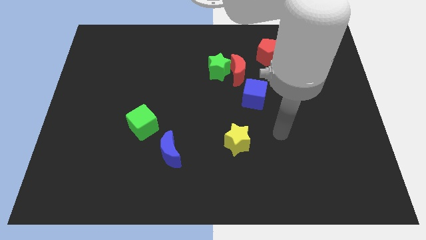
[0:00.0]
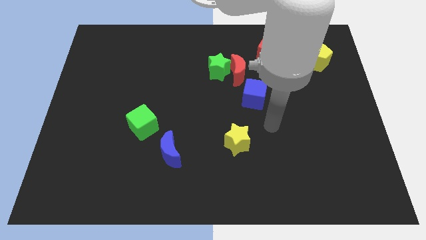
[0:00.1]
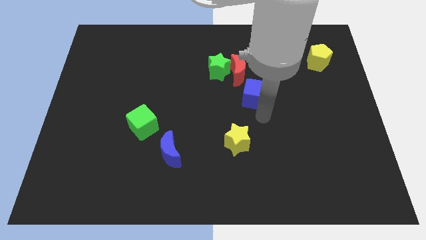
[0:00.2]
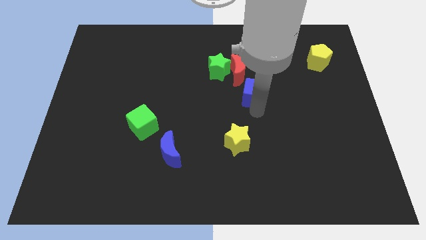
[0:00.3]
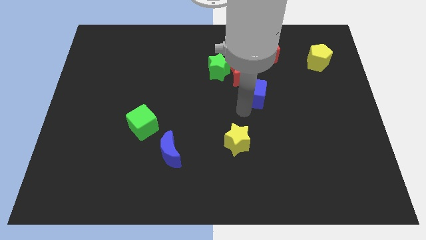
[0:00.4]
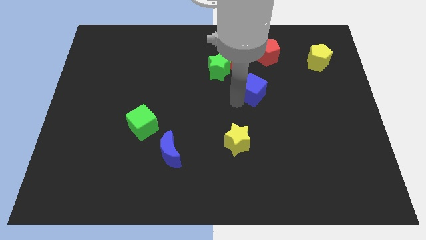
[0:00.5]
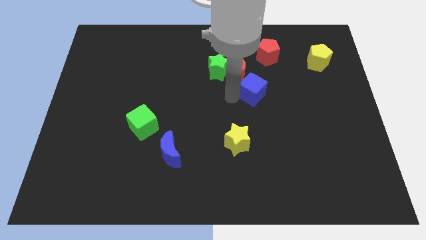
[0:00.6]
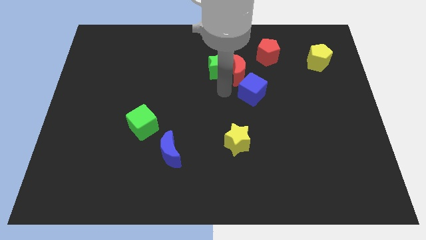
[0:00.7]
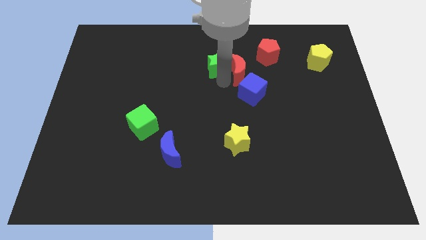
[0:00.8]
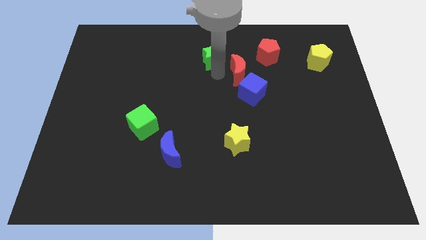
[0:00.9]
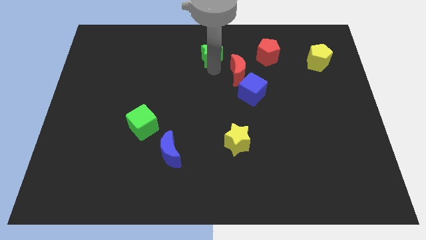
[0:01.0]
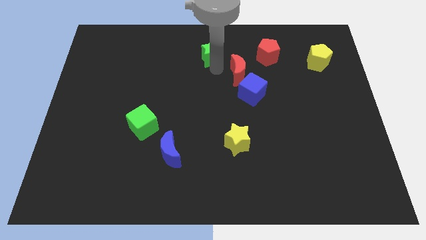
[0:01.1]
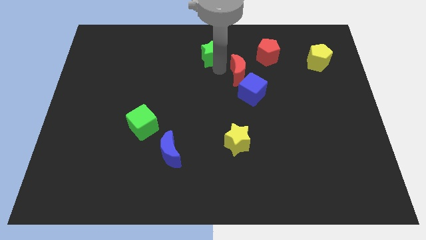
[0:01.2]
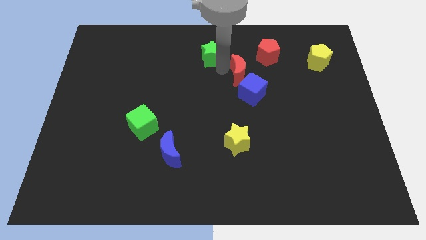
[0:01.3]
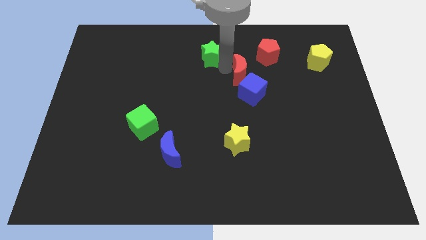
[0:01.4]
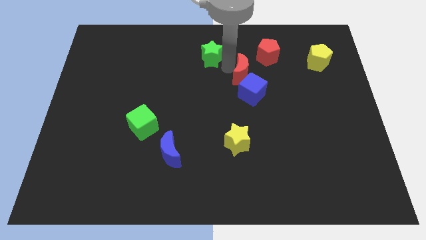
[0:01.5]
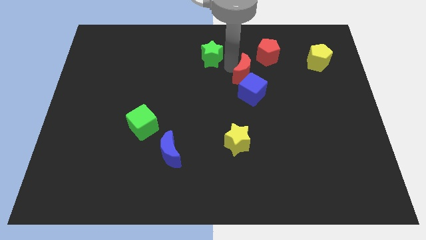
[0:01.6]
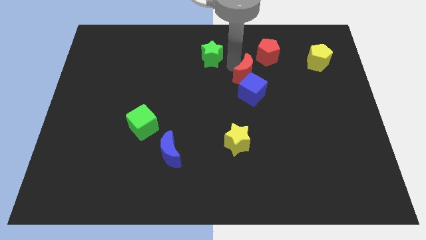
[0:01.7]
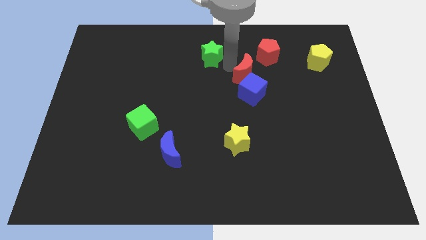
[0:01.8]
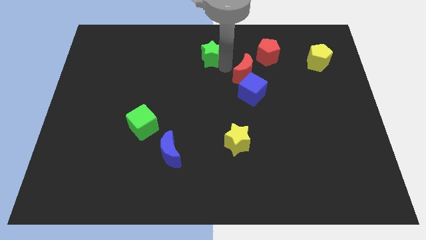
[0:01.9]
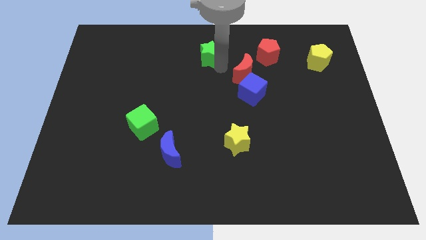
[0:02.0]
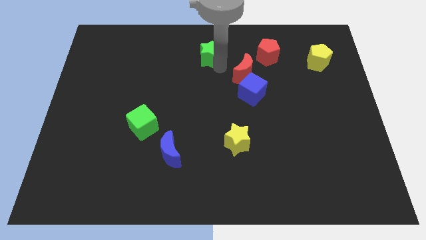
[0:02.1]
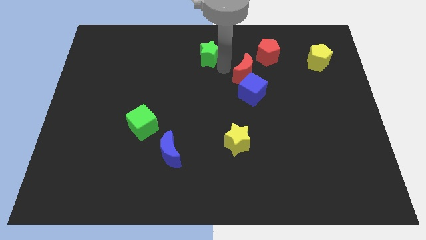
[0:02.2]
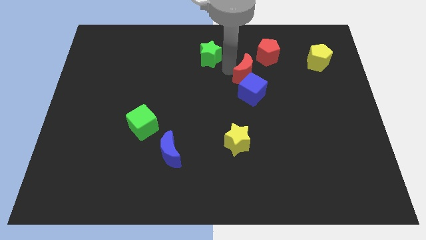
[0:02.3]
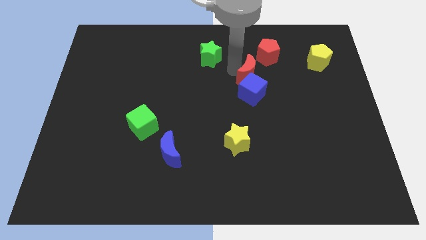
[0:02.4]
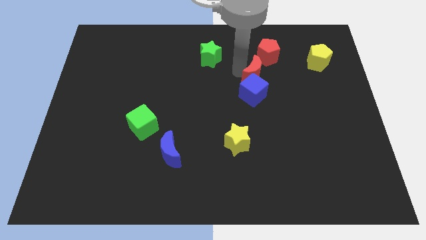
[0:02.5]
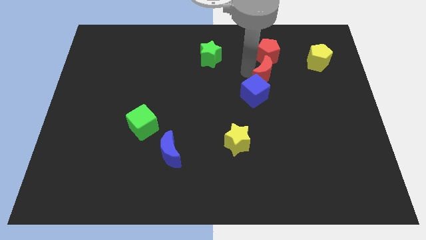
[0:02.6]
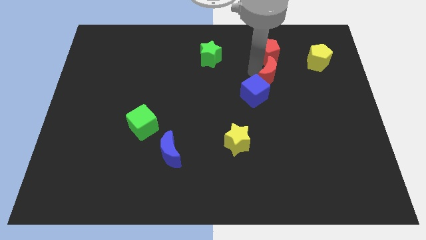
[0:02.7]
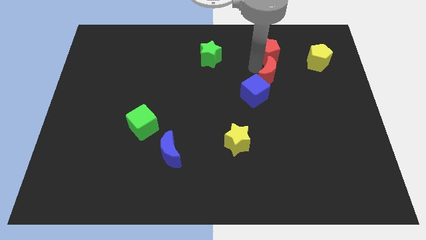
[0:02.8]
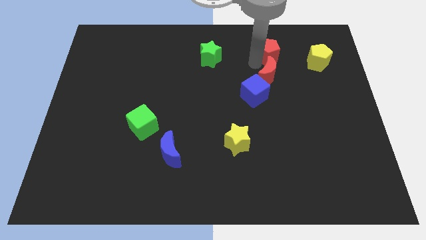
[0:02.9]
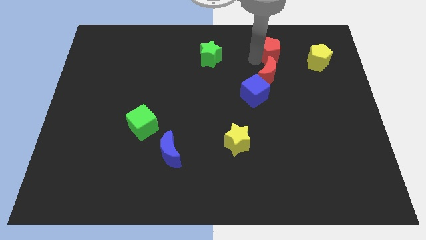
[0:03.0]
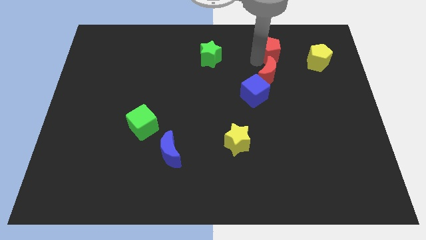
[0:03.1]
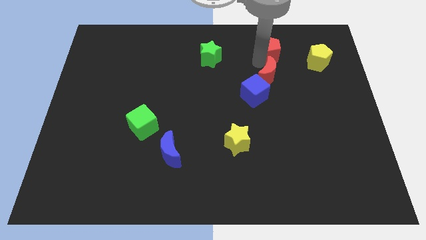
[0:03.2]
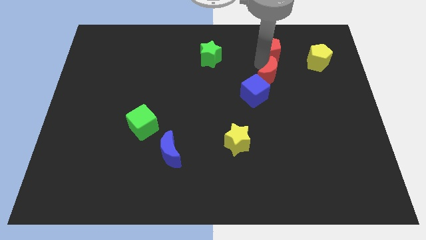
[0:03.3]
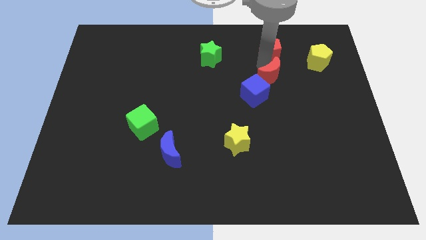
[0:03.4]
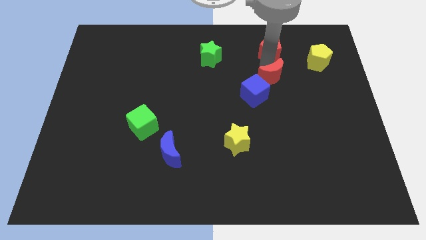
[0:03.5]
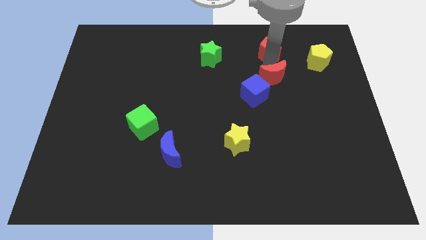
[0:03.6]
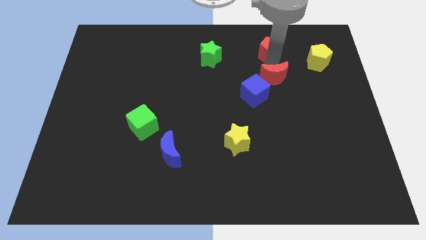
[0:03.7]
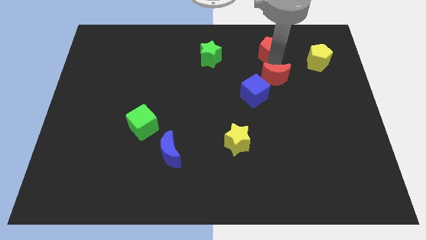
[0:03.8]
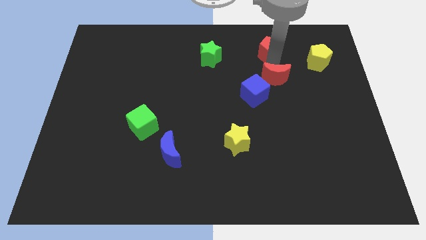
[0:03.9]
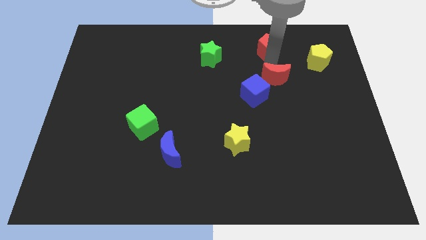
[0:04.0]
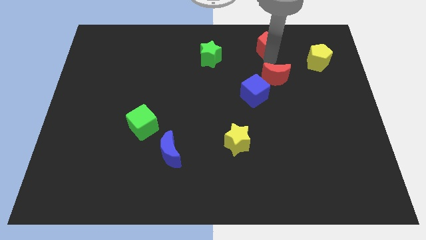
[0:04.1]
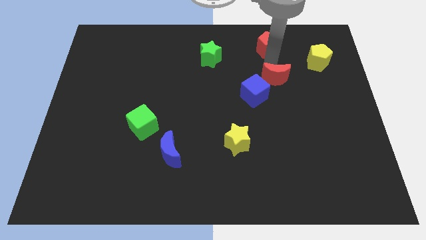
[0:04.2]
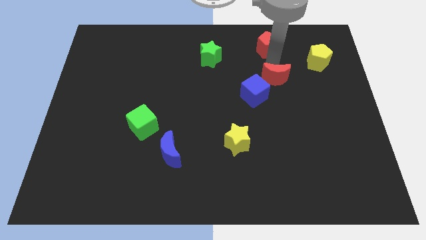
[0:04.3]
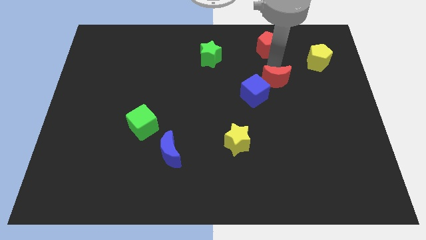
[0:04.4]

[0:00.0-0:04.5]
slightly slide the red moon downwards and then to the right

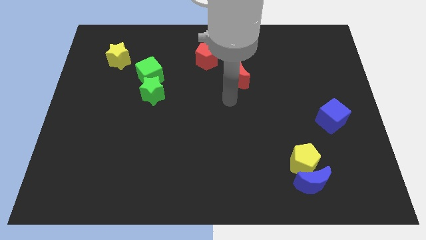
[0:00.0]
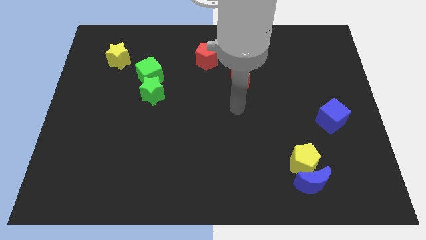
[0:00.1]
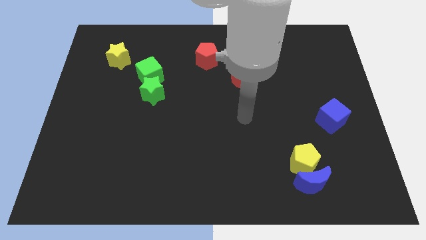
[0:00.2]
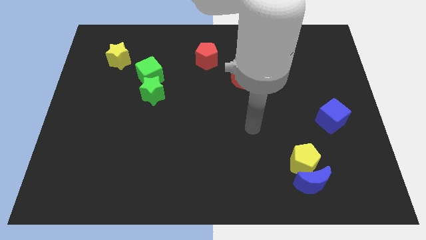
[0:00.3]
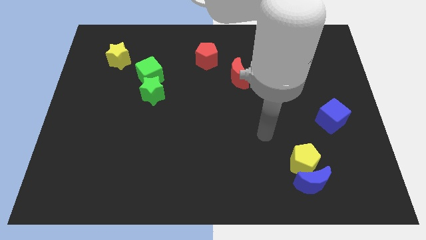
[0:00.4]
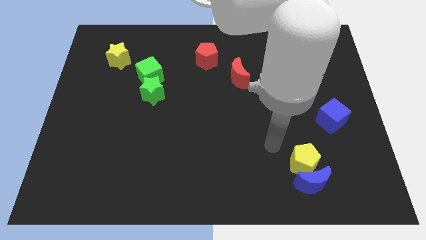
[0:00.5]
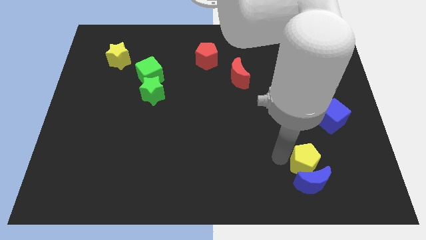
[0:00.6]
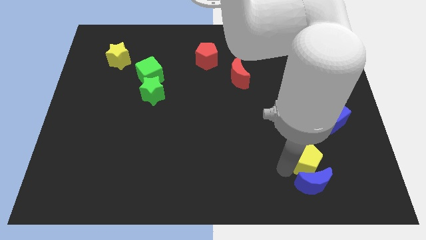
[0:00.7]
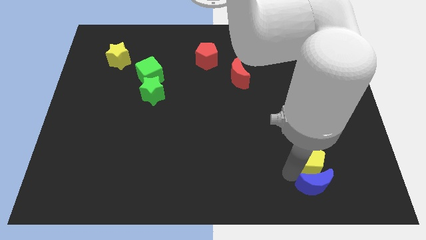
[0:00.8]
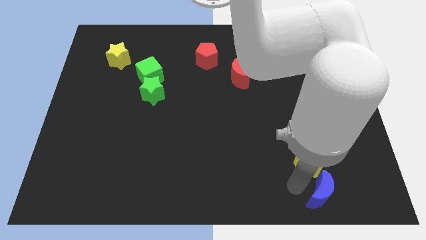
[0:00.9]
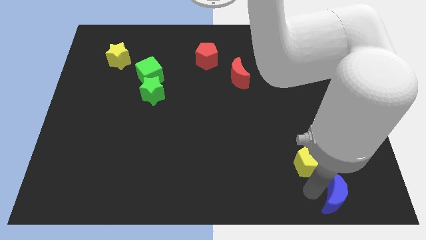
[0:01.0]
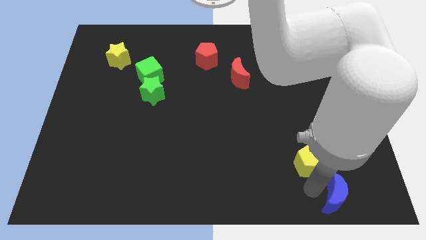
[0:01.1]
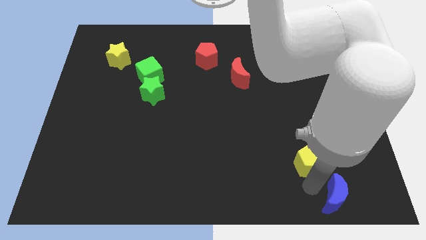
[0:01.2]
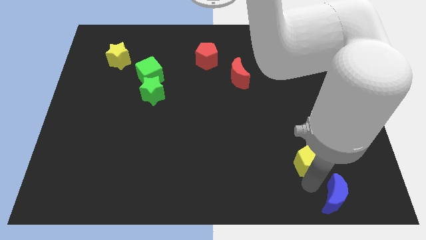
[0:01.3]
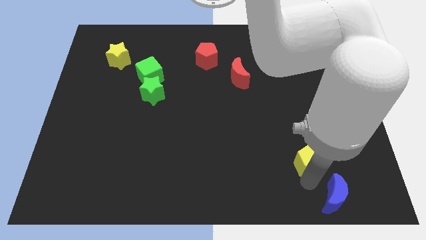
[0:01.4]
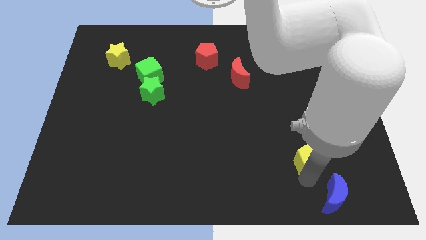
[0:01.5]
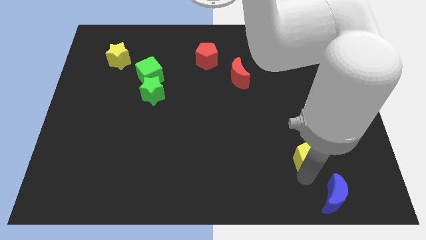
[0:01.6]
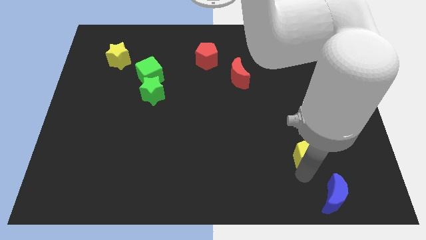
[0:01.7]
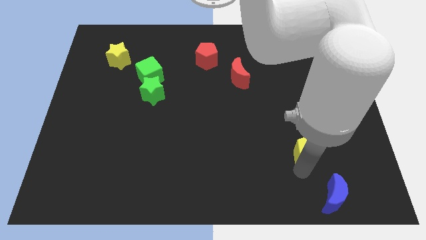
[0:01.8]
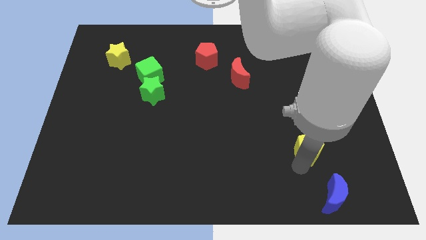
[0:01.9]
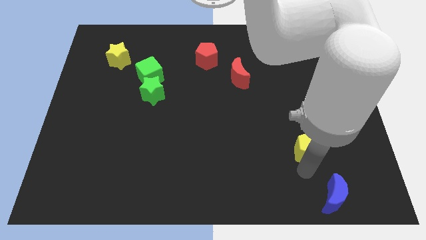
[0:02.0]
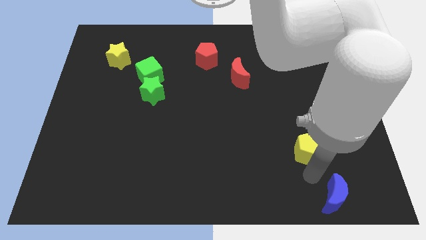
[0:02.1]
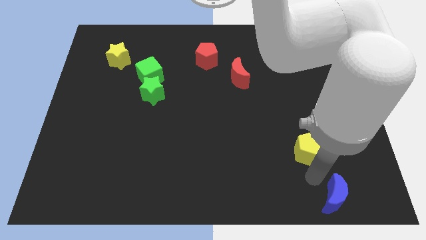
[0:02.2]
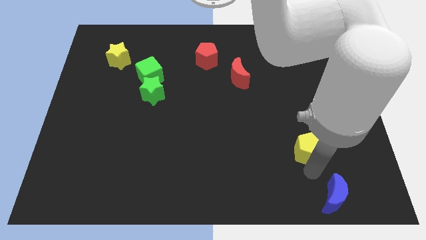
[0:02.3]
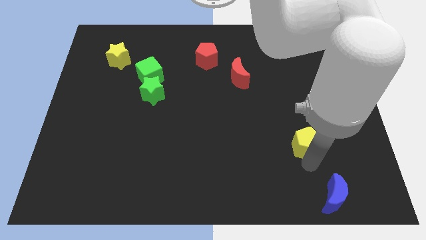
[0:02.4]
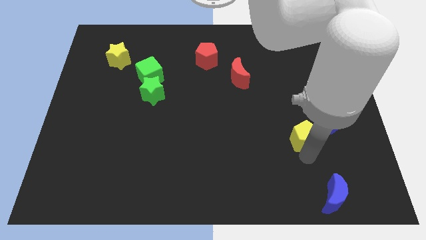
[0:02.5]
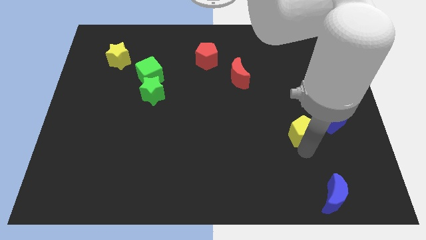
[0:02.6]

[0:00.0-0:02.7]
slightly push the yellow pentagon upwards

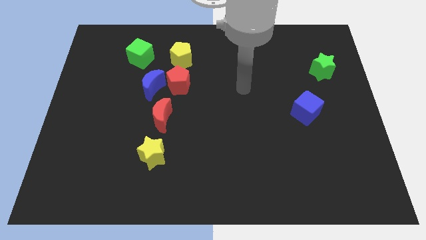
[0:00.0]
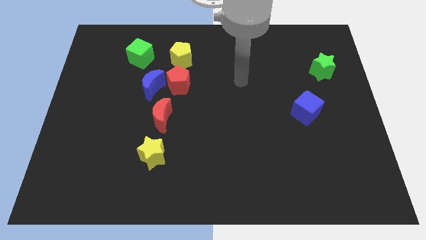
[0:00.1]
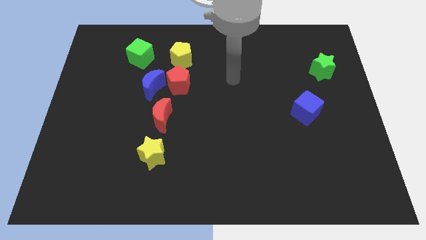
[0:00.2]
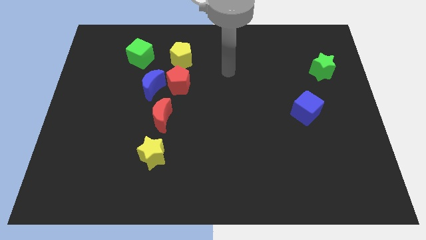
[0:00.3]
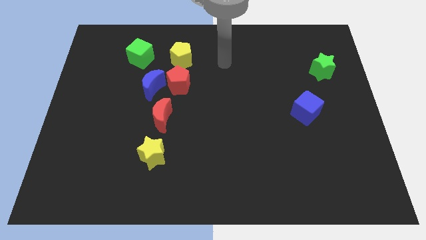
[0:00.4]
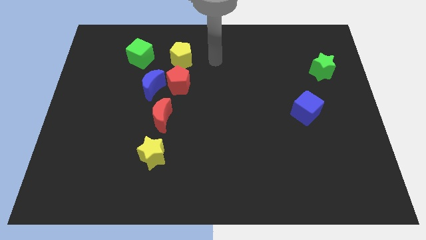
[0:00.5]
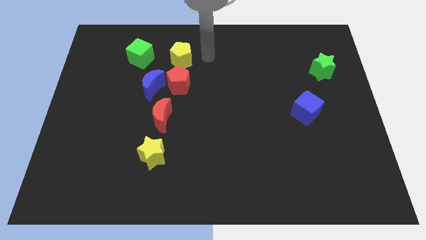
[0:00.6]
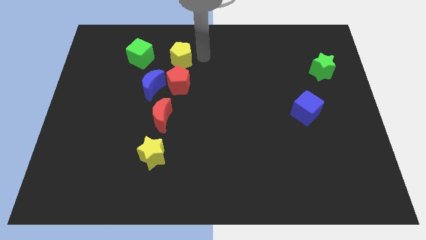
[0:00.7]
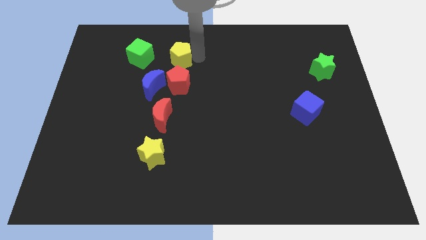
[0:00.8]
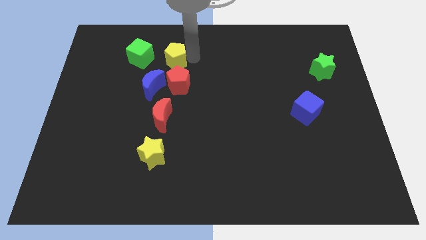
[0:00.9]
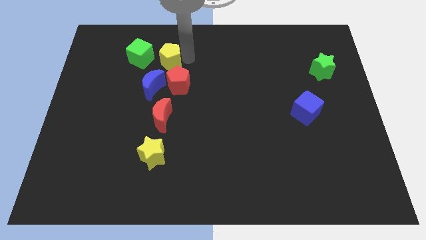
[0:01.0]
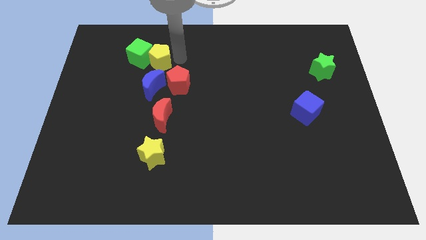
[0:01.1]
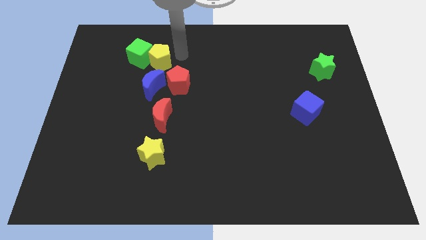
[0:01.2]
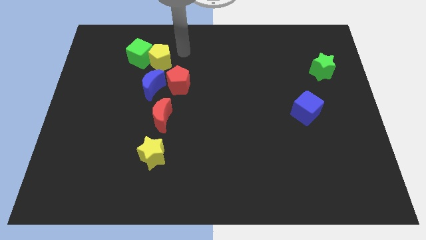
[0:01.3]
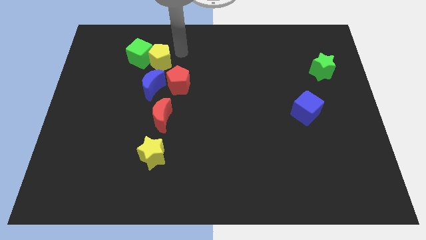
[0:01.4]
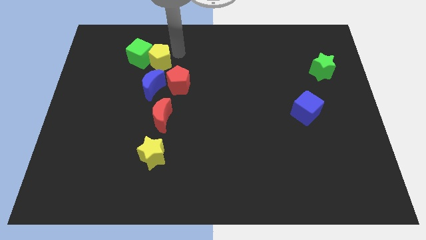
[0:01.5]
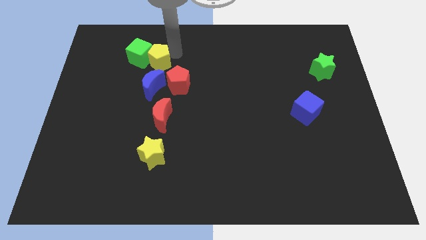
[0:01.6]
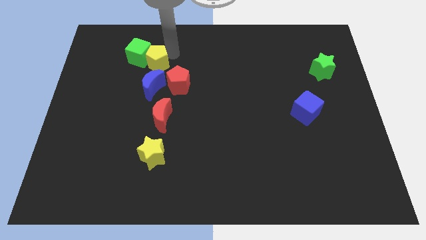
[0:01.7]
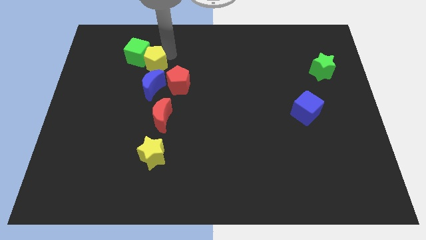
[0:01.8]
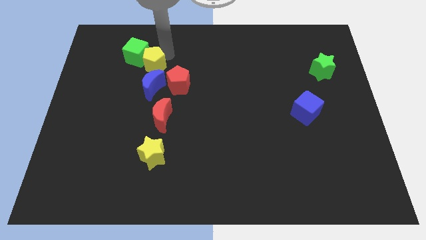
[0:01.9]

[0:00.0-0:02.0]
slightly slide the yellow pentagon left
